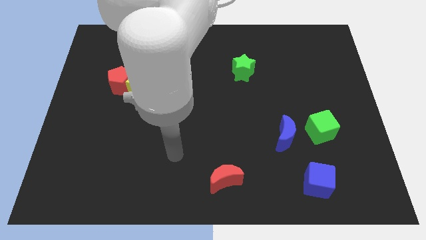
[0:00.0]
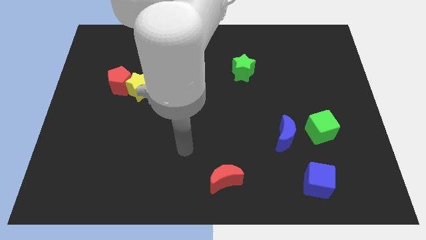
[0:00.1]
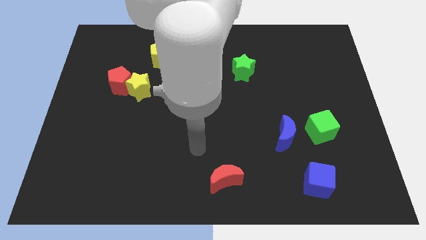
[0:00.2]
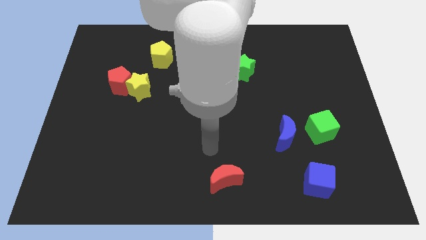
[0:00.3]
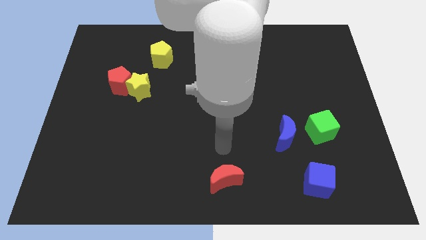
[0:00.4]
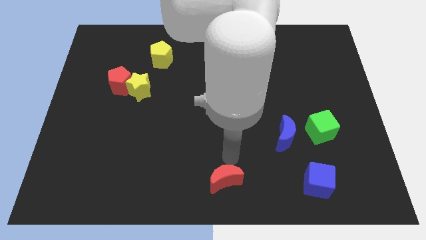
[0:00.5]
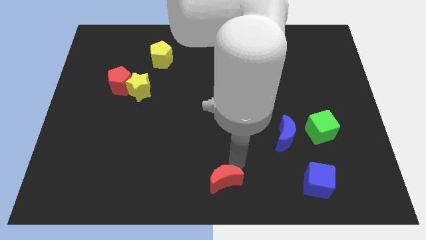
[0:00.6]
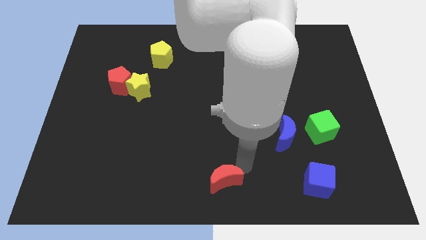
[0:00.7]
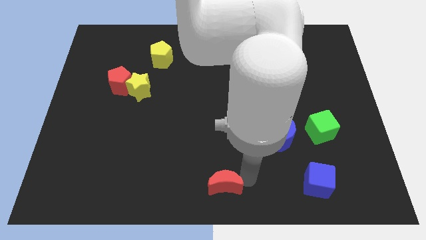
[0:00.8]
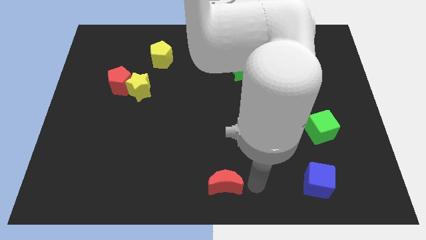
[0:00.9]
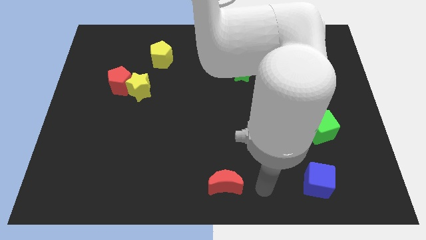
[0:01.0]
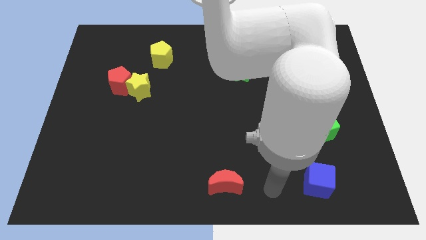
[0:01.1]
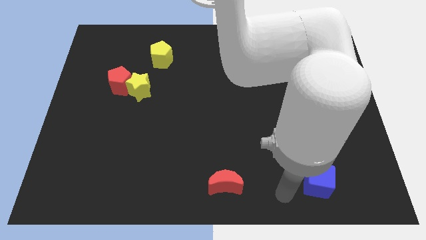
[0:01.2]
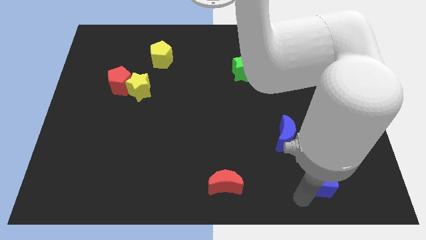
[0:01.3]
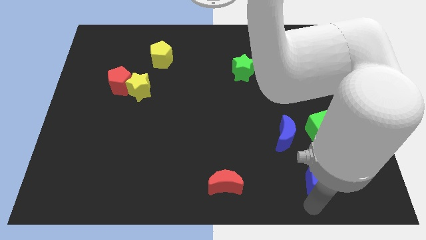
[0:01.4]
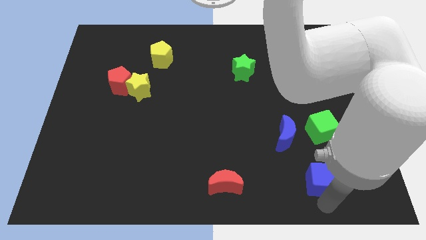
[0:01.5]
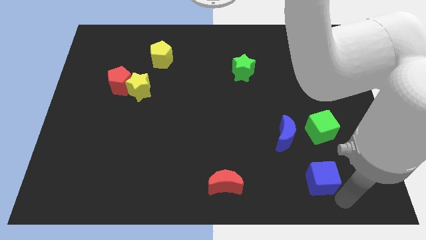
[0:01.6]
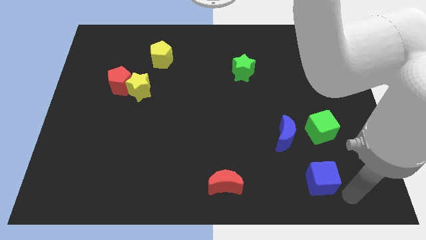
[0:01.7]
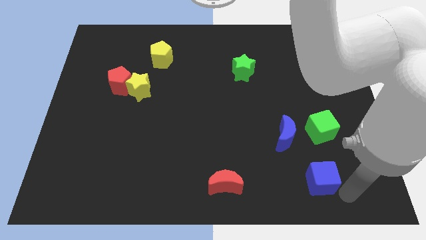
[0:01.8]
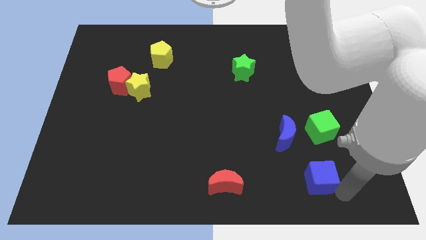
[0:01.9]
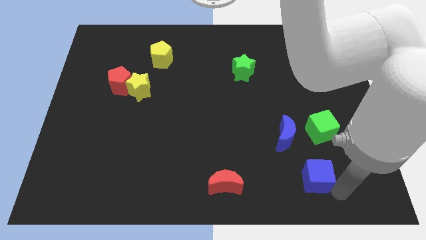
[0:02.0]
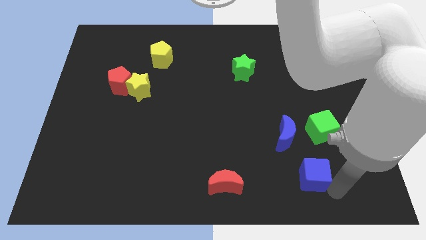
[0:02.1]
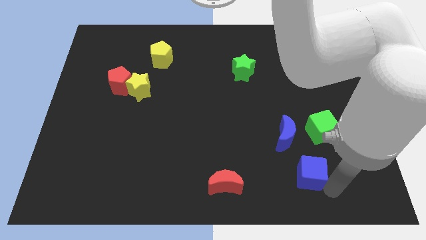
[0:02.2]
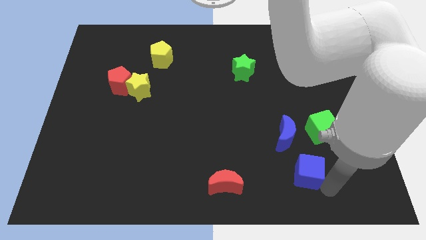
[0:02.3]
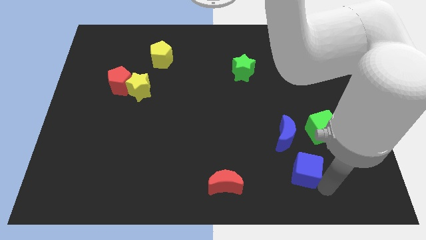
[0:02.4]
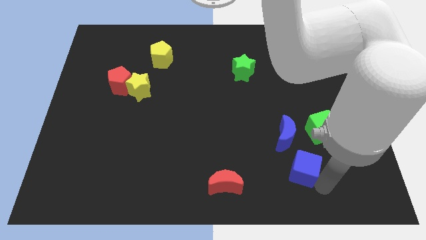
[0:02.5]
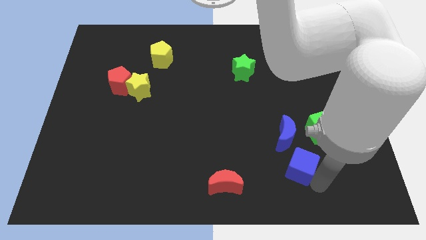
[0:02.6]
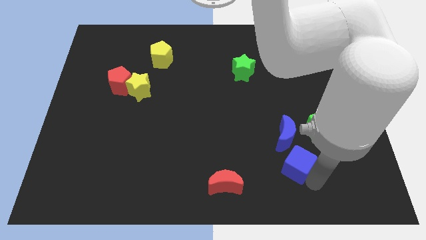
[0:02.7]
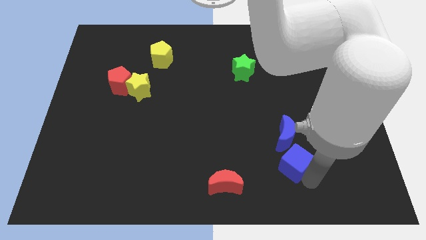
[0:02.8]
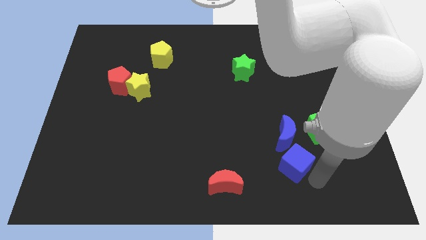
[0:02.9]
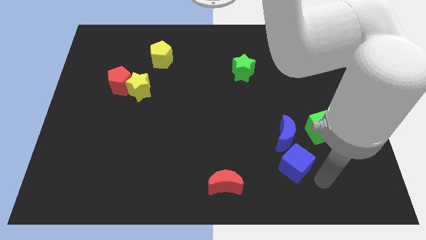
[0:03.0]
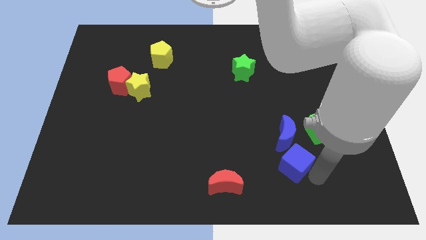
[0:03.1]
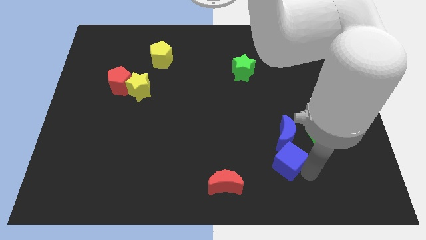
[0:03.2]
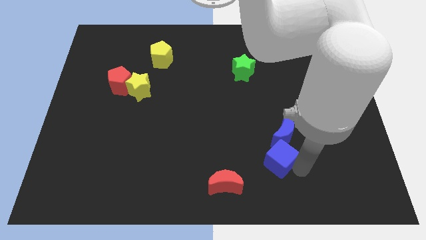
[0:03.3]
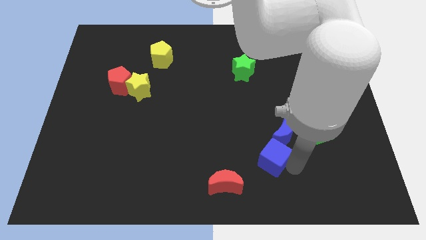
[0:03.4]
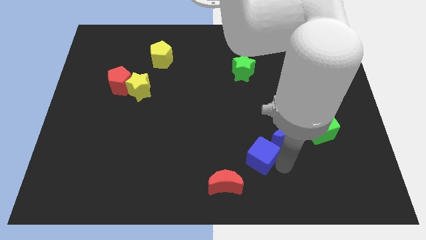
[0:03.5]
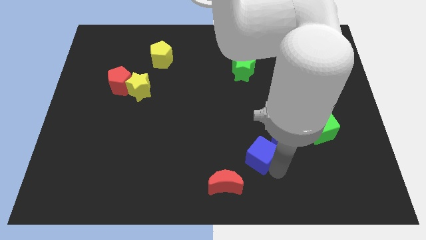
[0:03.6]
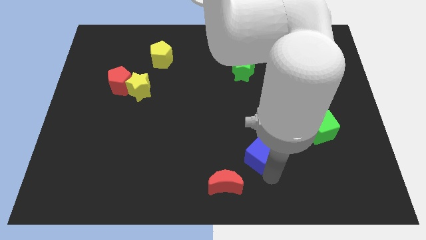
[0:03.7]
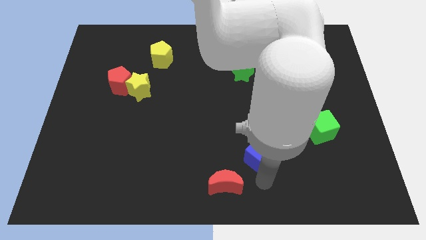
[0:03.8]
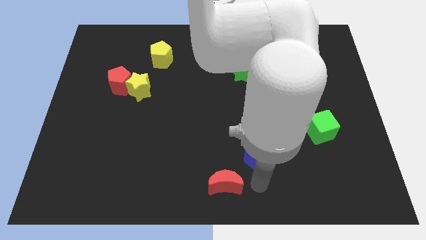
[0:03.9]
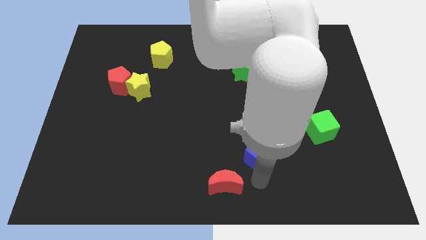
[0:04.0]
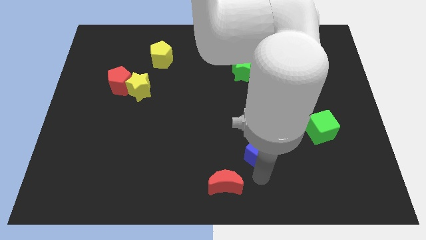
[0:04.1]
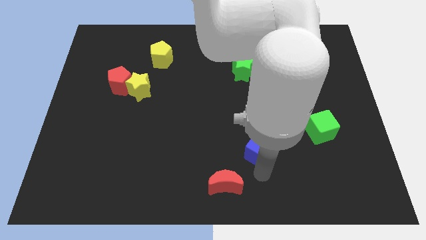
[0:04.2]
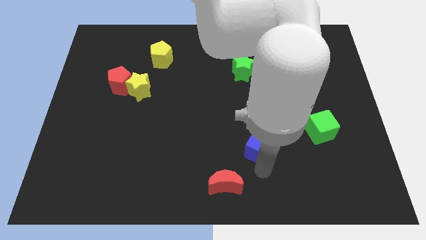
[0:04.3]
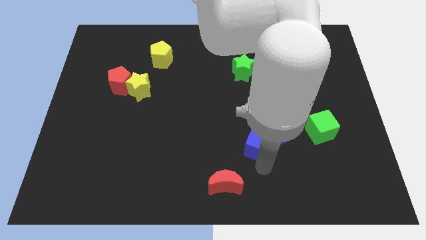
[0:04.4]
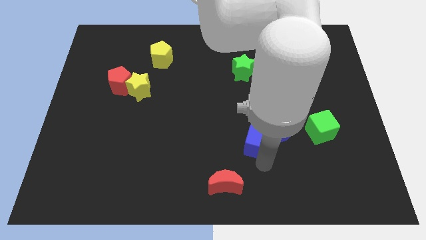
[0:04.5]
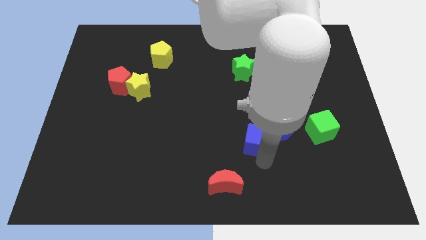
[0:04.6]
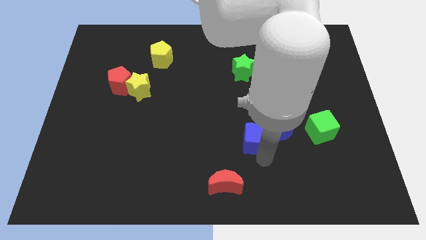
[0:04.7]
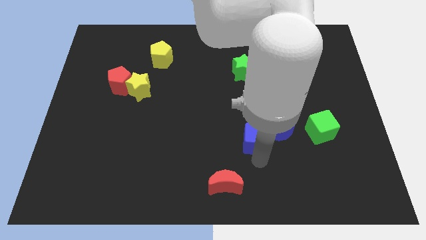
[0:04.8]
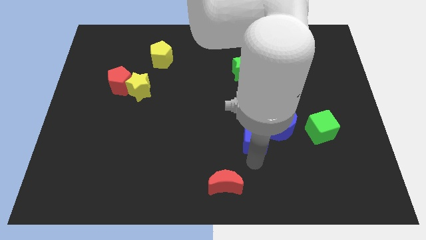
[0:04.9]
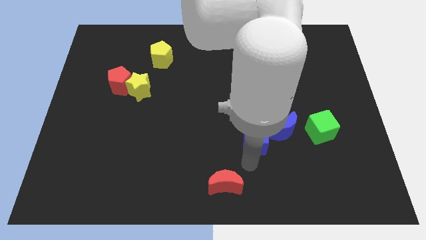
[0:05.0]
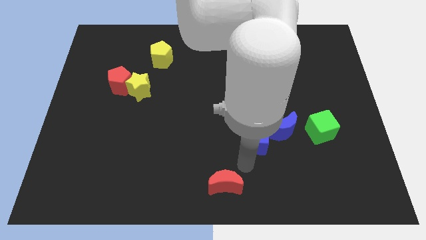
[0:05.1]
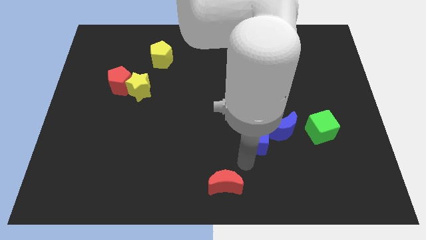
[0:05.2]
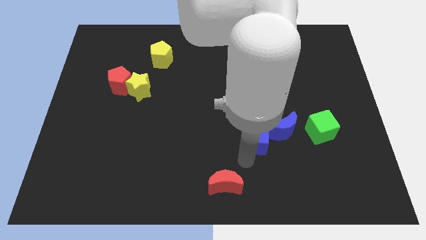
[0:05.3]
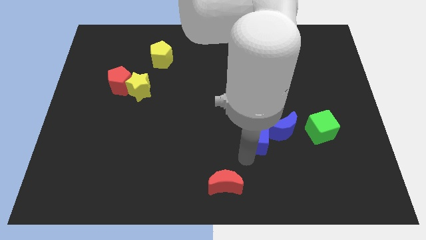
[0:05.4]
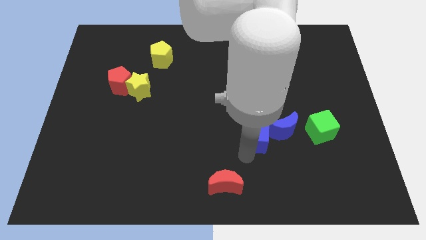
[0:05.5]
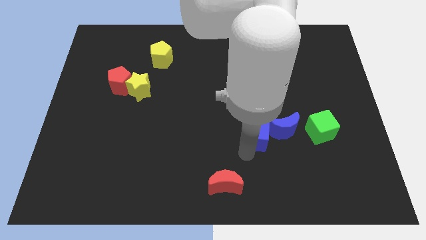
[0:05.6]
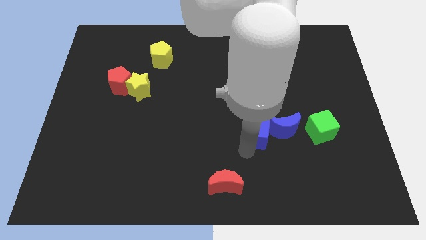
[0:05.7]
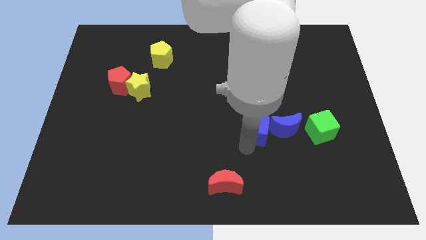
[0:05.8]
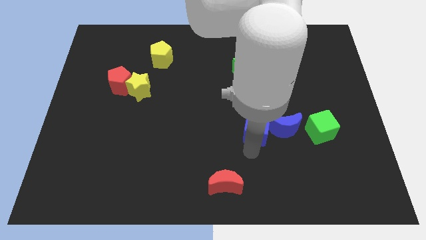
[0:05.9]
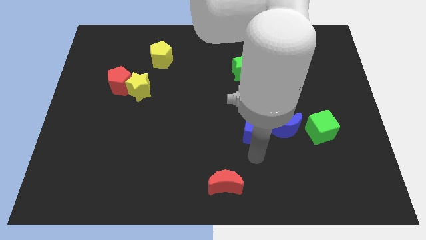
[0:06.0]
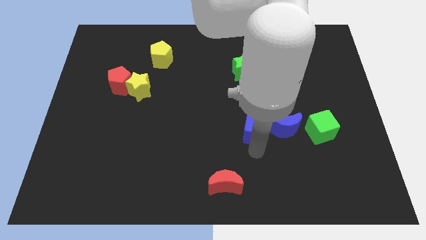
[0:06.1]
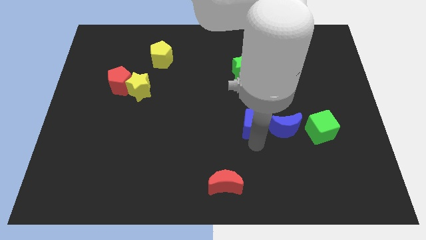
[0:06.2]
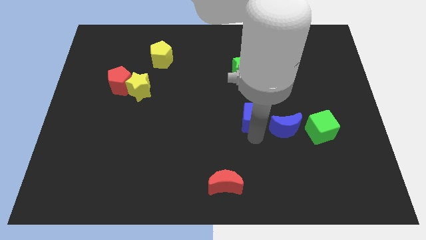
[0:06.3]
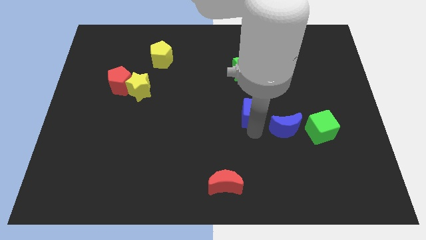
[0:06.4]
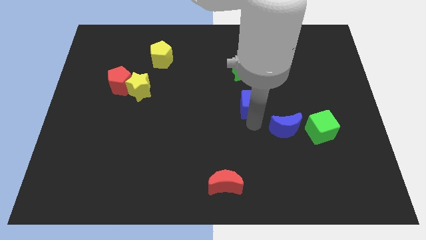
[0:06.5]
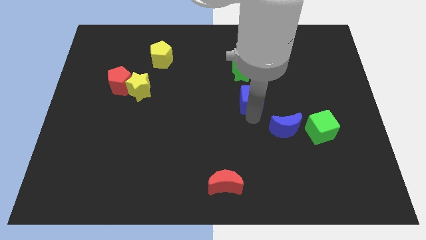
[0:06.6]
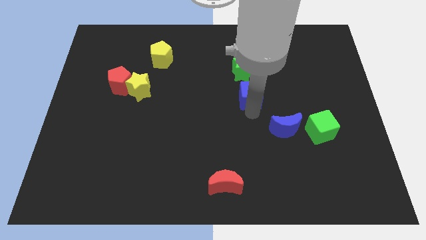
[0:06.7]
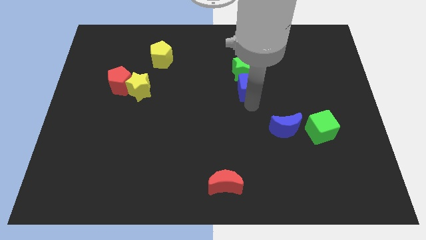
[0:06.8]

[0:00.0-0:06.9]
slide the blue cube close to the green star

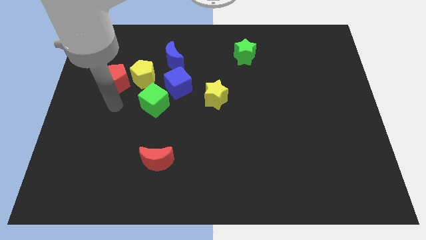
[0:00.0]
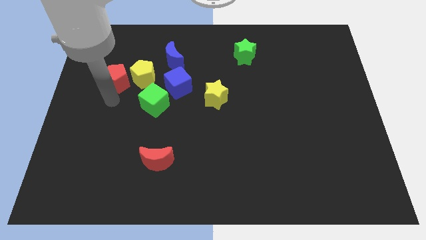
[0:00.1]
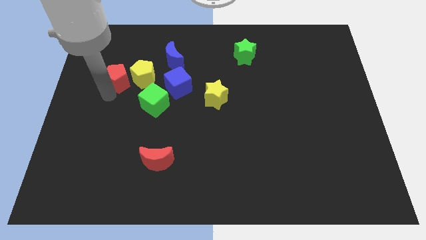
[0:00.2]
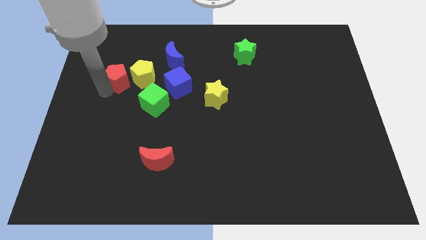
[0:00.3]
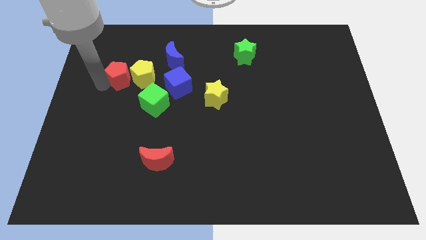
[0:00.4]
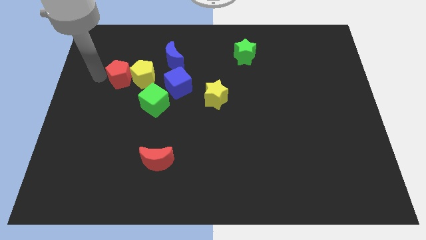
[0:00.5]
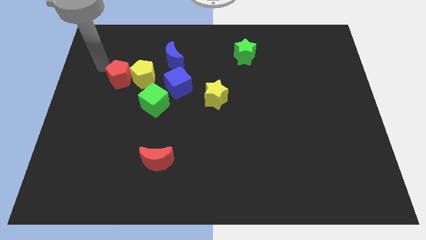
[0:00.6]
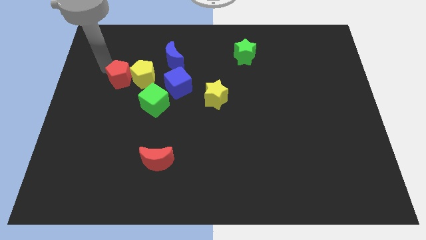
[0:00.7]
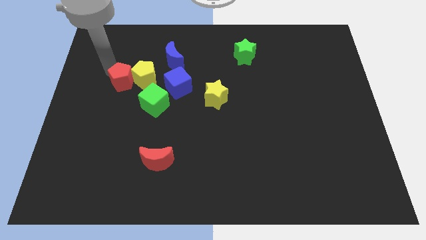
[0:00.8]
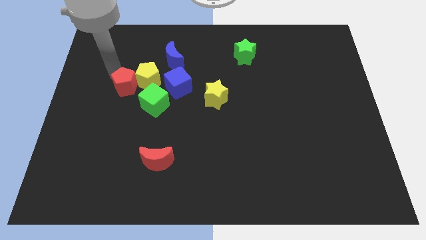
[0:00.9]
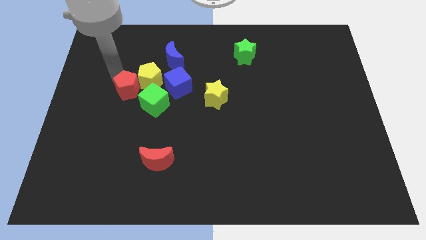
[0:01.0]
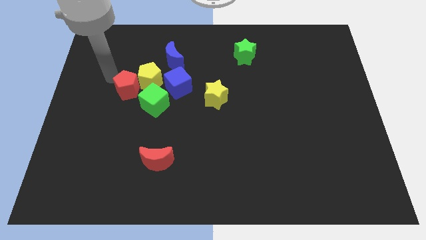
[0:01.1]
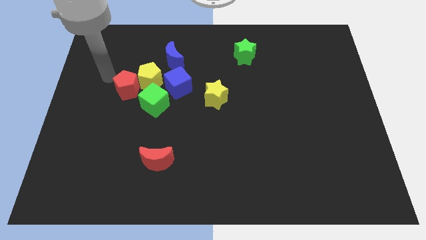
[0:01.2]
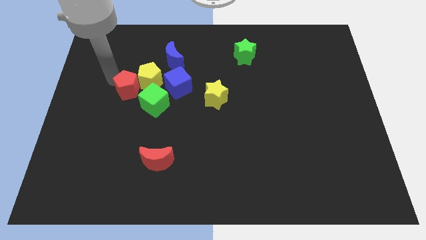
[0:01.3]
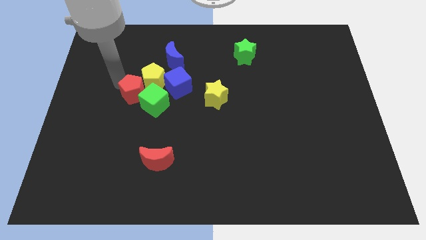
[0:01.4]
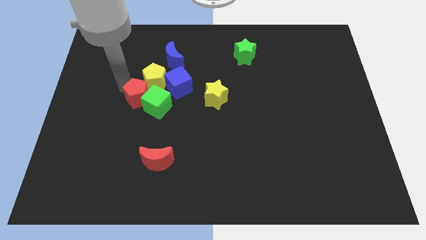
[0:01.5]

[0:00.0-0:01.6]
push the red pentagon next to the green cube
